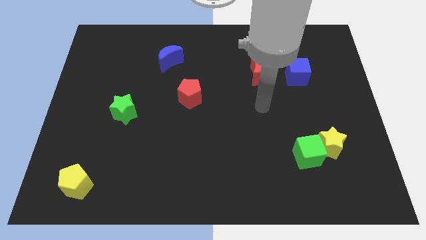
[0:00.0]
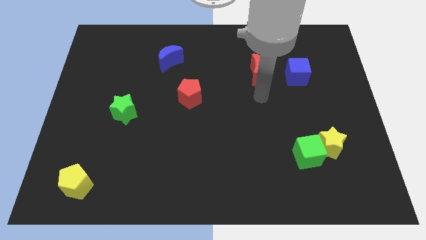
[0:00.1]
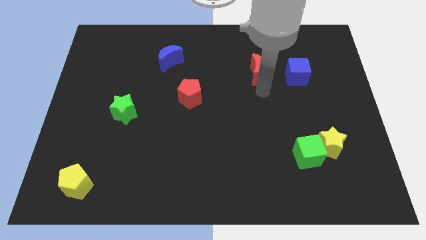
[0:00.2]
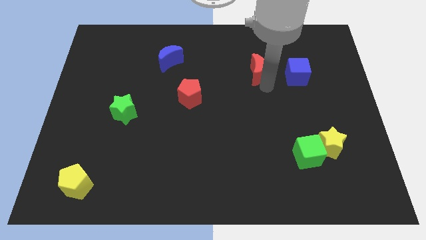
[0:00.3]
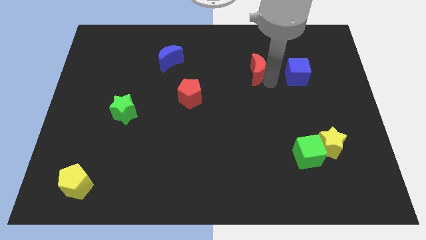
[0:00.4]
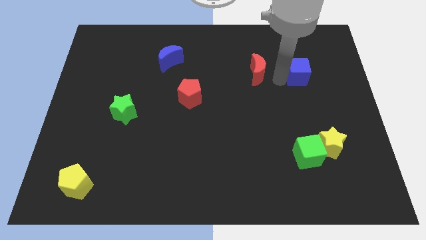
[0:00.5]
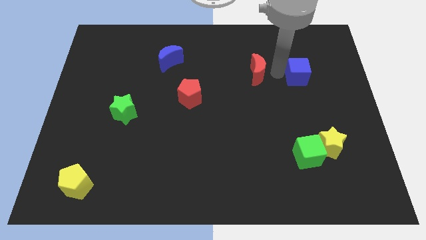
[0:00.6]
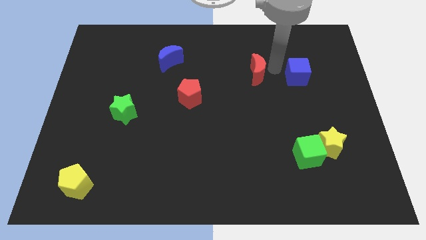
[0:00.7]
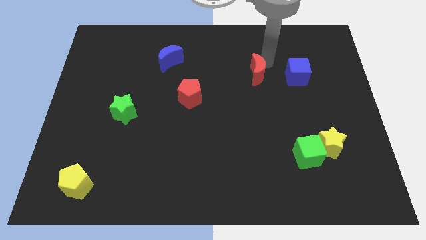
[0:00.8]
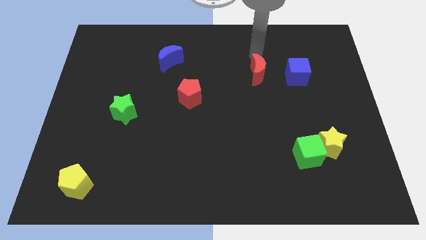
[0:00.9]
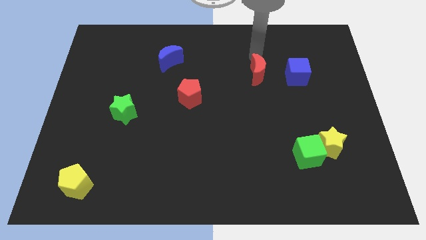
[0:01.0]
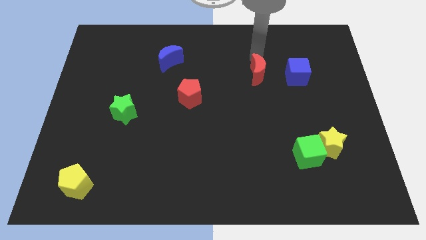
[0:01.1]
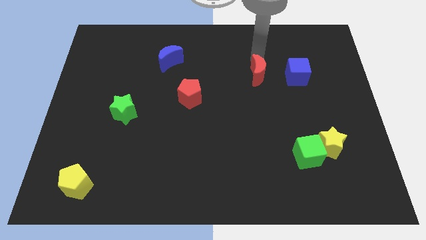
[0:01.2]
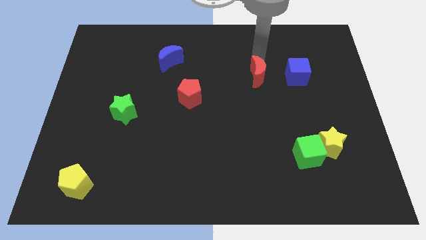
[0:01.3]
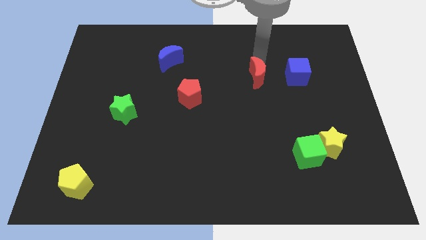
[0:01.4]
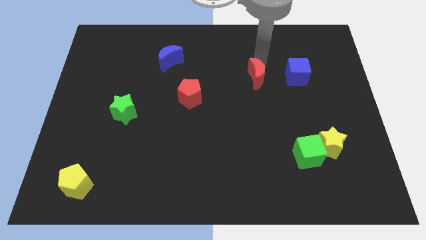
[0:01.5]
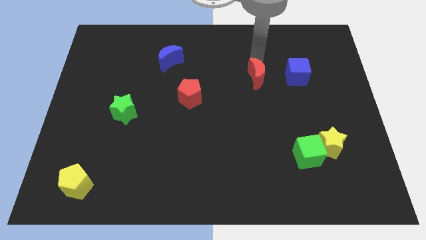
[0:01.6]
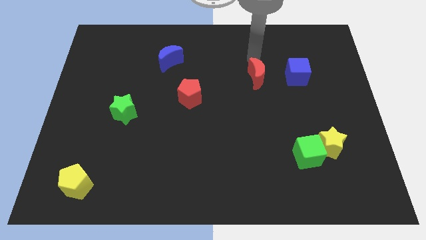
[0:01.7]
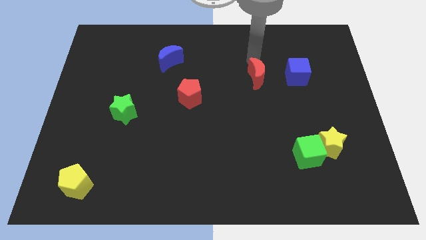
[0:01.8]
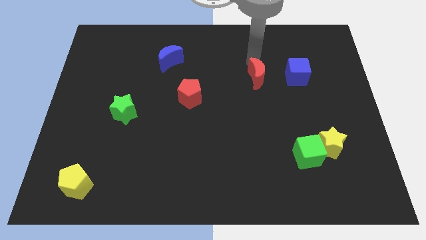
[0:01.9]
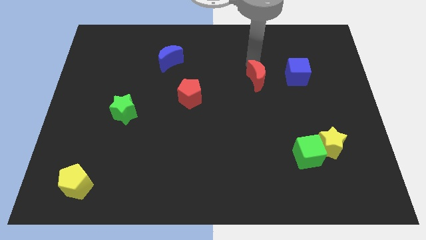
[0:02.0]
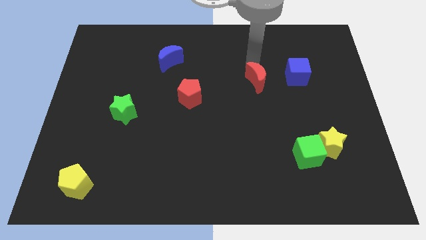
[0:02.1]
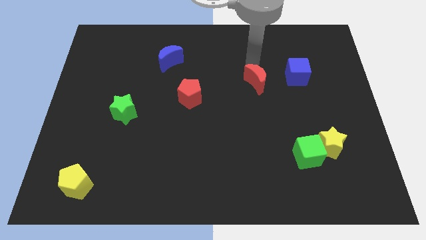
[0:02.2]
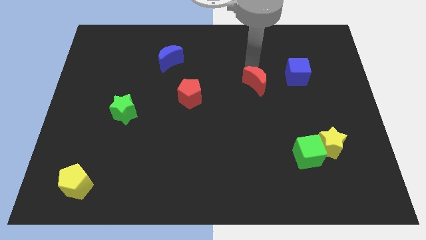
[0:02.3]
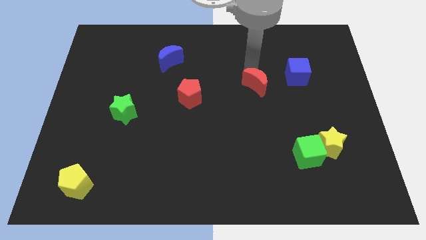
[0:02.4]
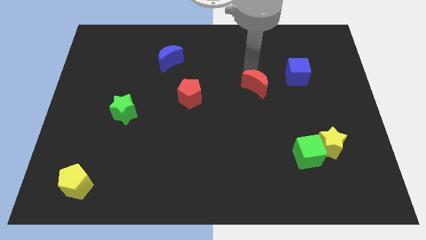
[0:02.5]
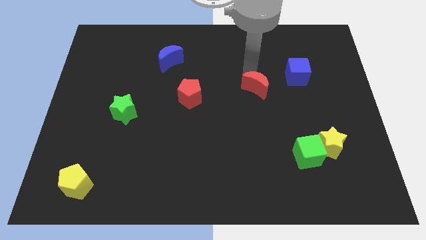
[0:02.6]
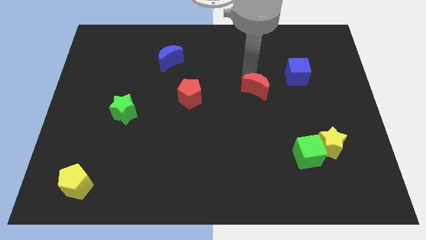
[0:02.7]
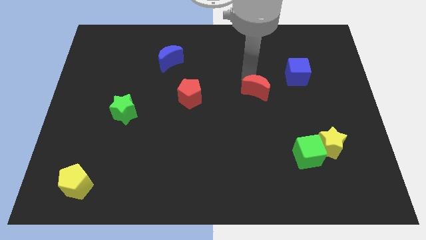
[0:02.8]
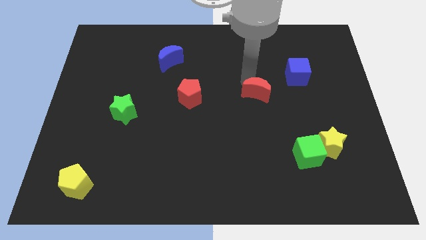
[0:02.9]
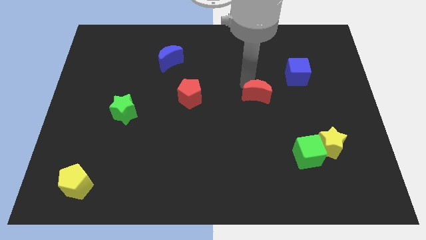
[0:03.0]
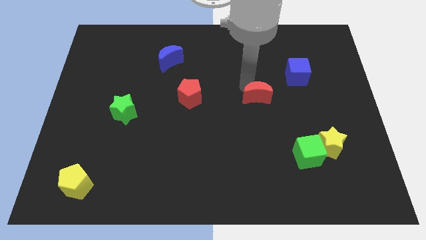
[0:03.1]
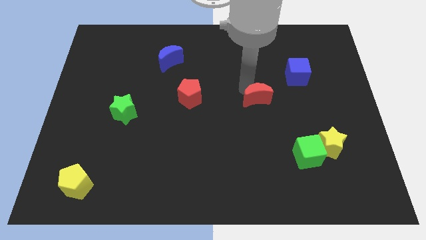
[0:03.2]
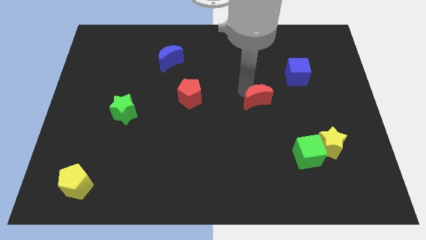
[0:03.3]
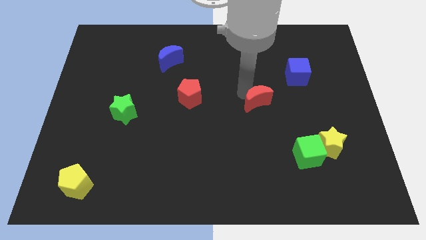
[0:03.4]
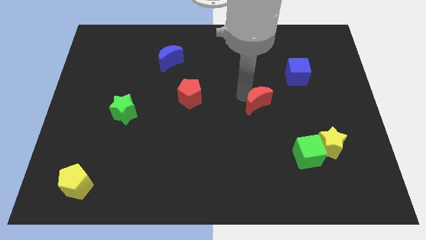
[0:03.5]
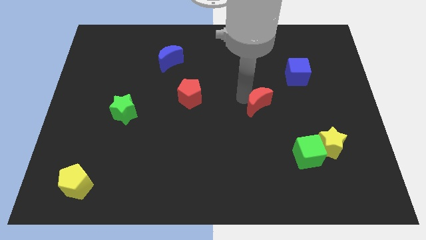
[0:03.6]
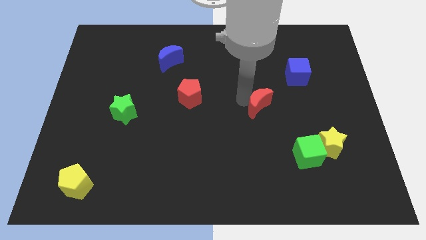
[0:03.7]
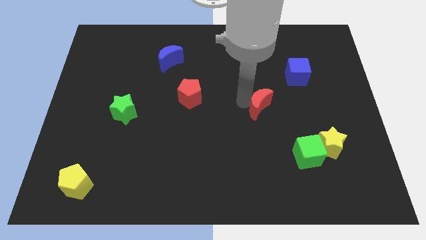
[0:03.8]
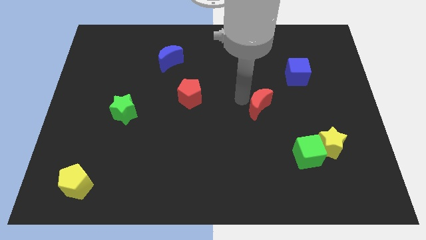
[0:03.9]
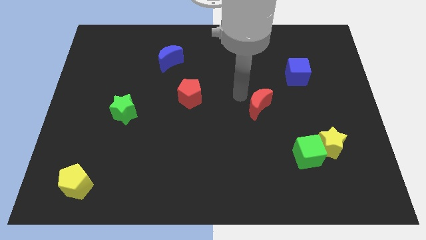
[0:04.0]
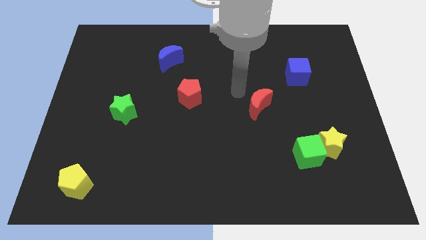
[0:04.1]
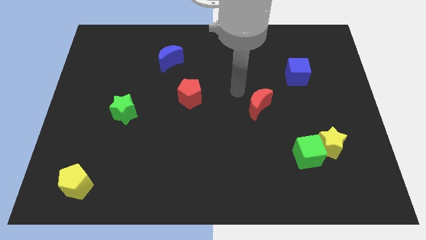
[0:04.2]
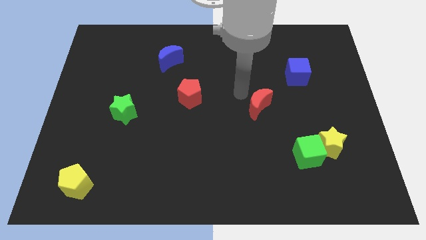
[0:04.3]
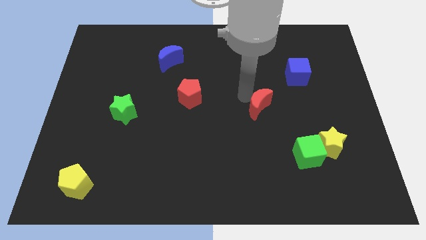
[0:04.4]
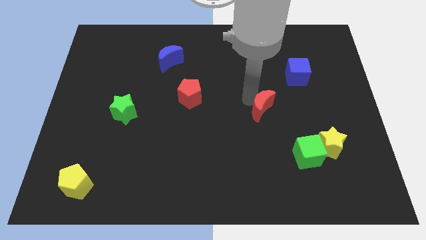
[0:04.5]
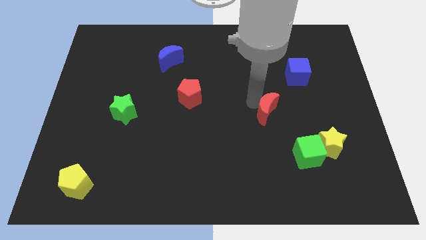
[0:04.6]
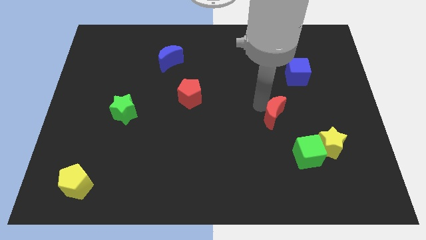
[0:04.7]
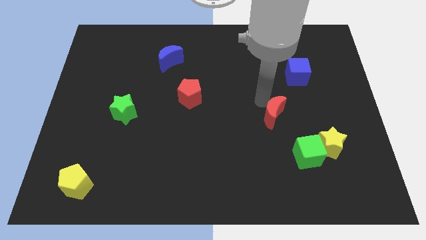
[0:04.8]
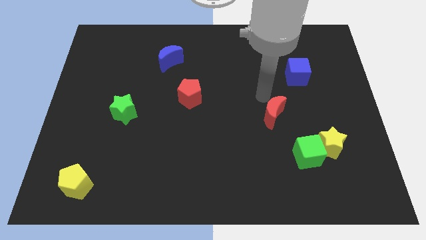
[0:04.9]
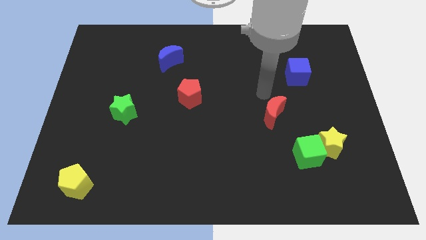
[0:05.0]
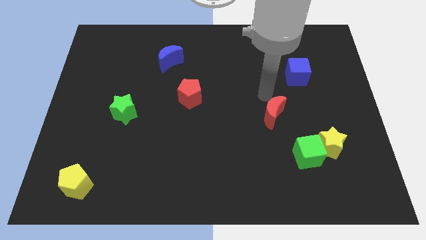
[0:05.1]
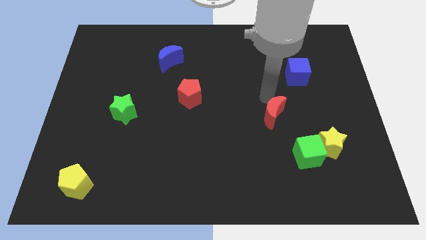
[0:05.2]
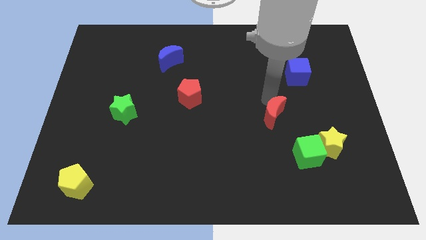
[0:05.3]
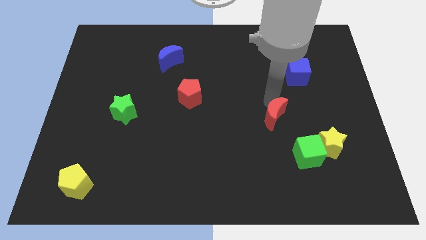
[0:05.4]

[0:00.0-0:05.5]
push the red moon to the top left side of the green cube

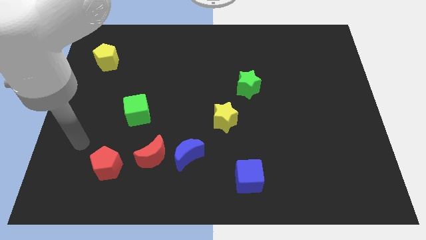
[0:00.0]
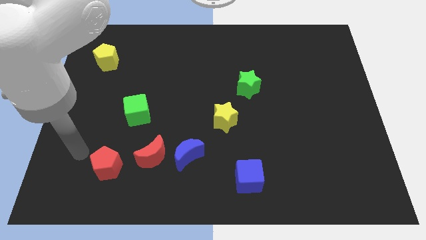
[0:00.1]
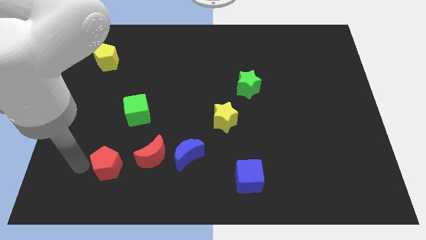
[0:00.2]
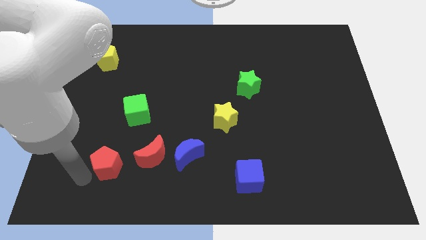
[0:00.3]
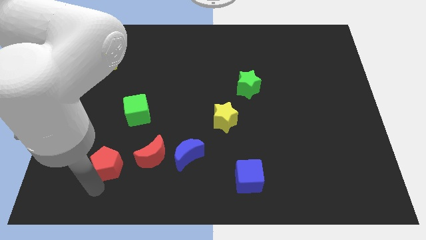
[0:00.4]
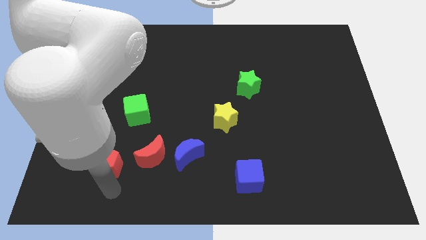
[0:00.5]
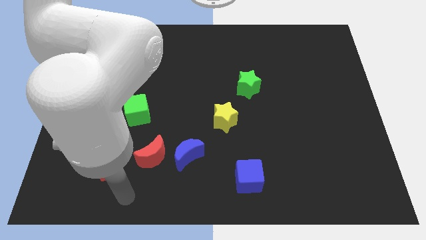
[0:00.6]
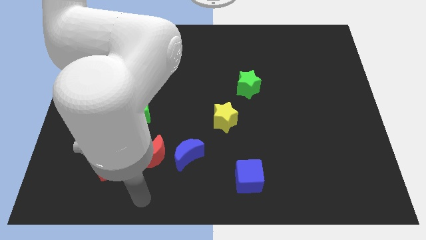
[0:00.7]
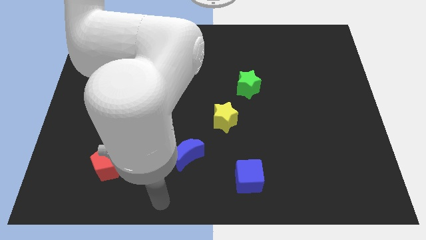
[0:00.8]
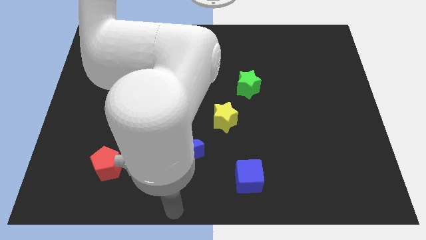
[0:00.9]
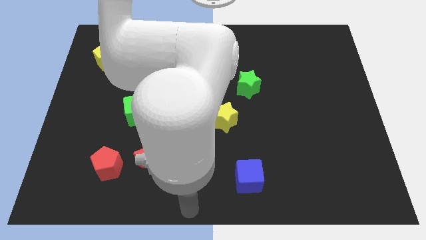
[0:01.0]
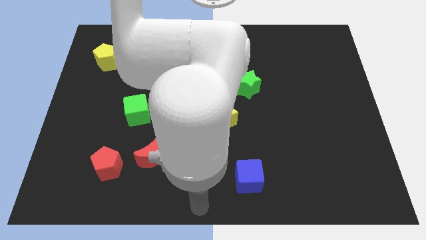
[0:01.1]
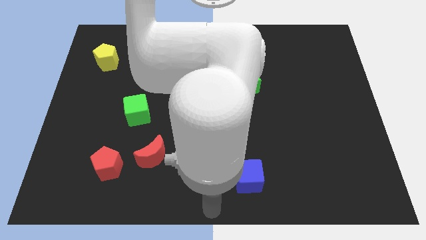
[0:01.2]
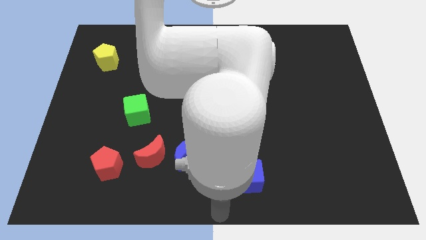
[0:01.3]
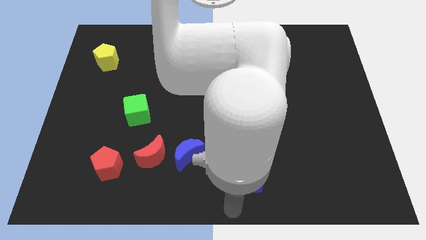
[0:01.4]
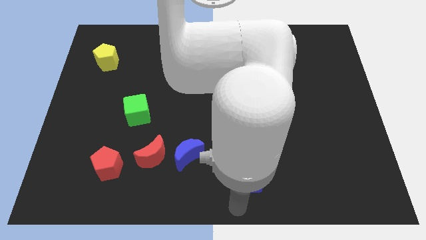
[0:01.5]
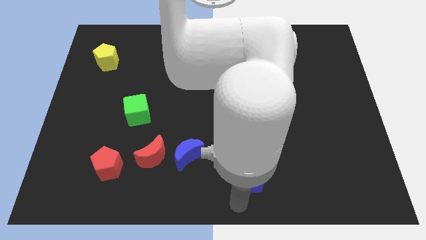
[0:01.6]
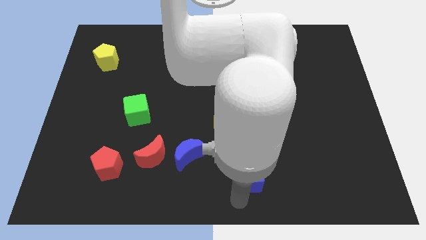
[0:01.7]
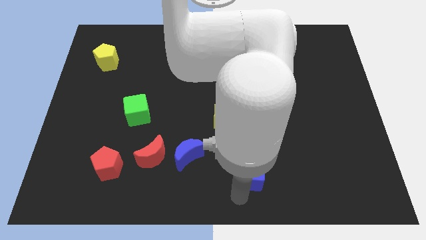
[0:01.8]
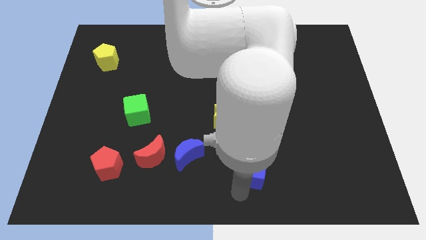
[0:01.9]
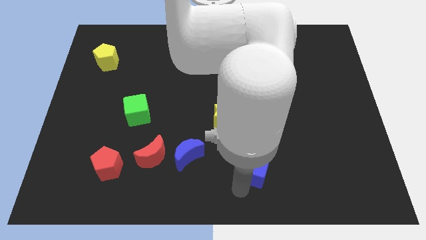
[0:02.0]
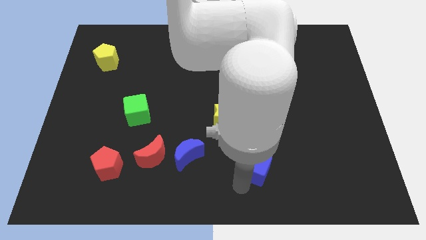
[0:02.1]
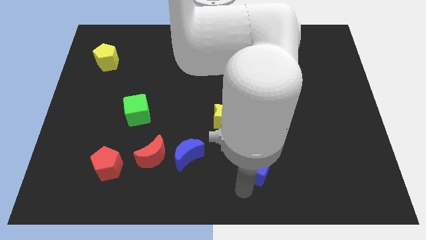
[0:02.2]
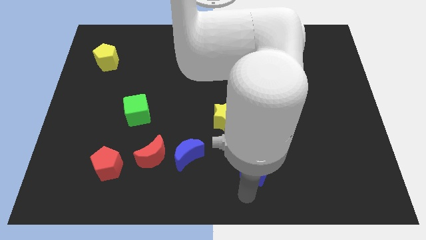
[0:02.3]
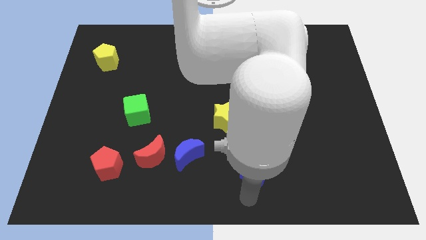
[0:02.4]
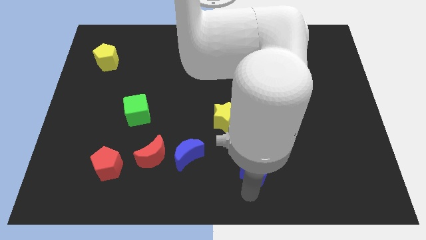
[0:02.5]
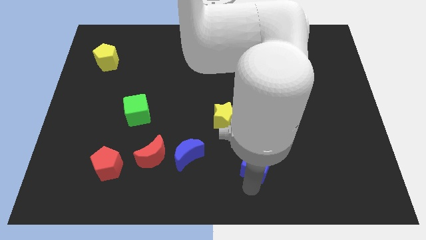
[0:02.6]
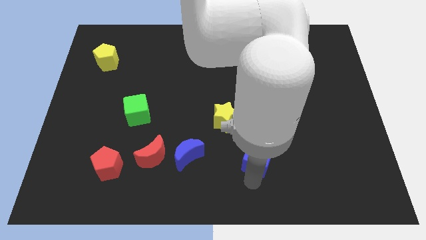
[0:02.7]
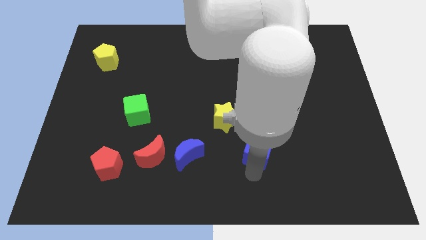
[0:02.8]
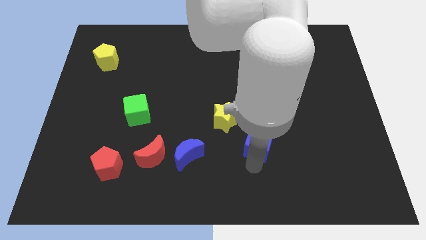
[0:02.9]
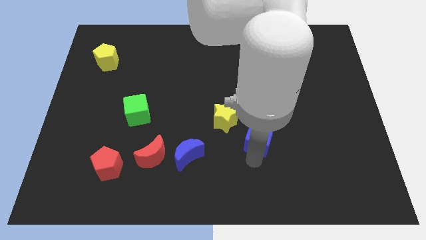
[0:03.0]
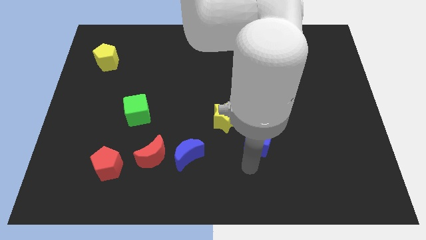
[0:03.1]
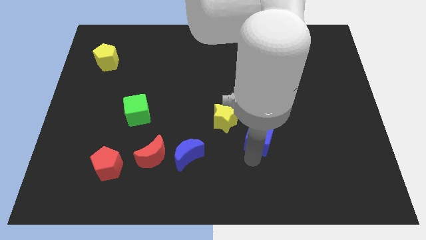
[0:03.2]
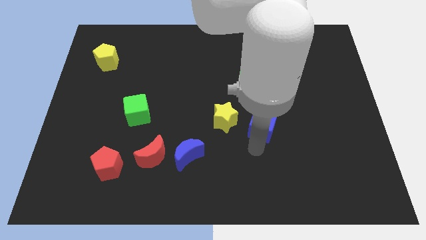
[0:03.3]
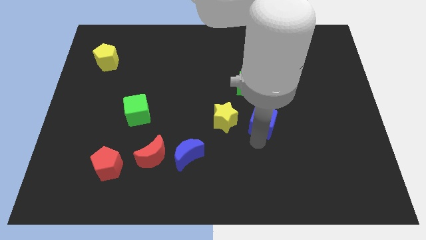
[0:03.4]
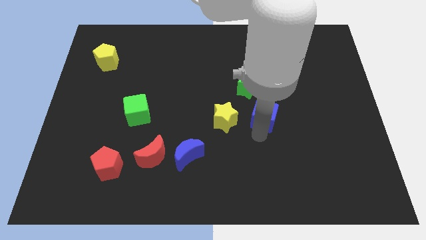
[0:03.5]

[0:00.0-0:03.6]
push the blue cube to the bottom right of the green star
